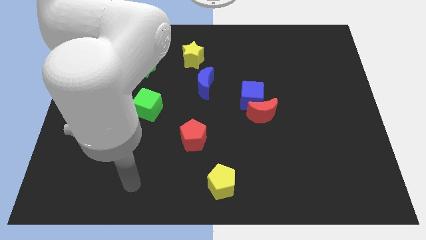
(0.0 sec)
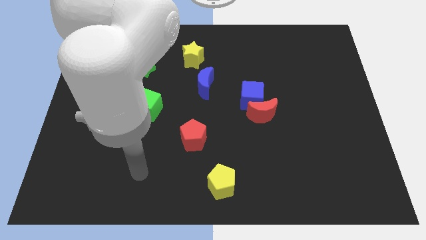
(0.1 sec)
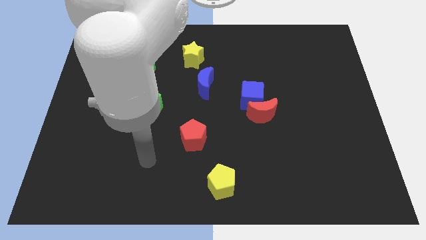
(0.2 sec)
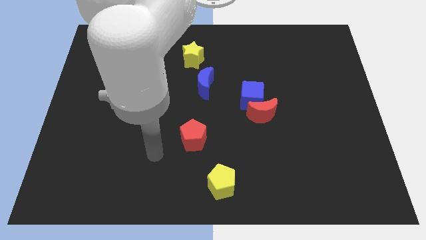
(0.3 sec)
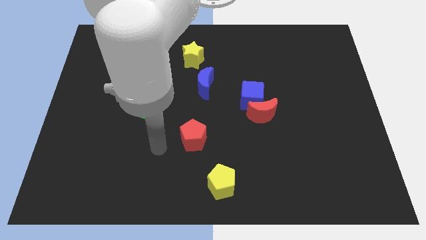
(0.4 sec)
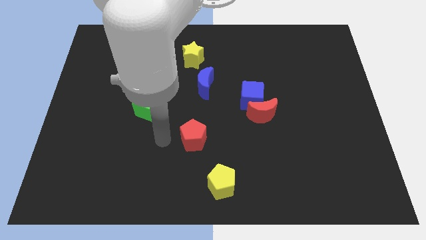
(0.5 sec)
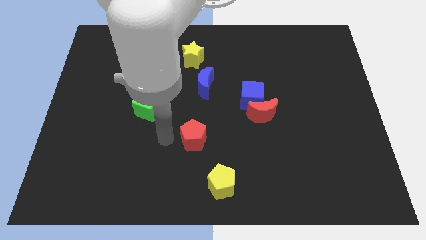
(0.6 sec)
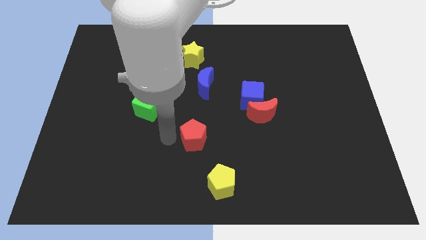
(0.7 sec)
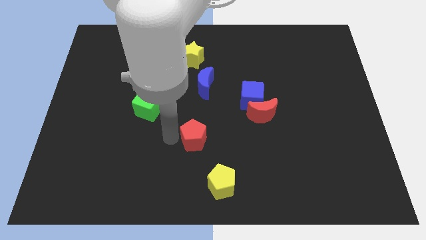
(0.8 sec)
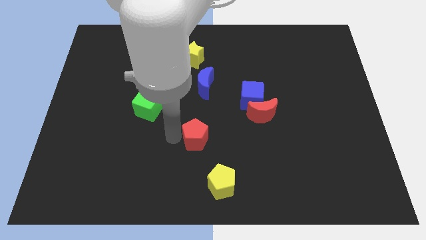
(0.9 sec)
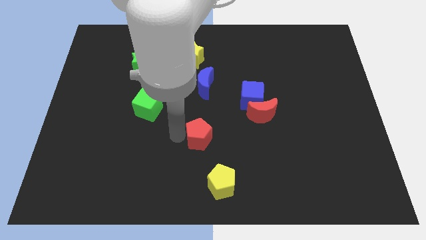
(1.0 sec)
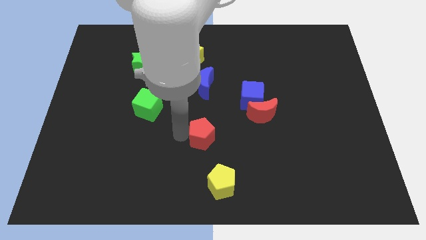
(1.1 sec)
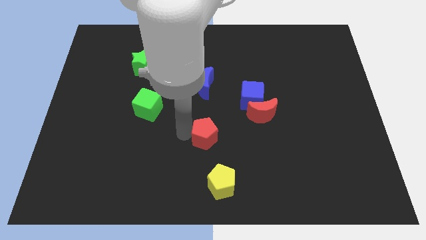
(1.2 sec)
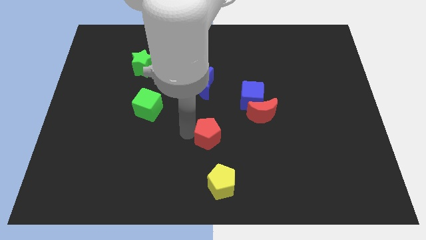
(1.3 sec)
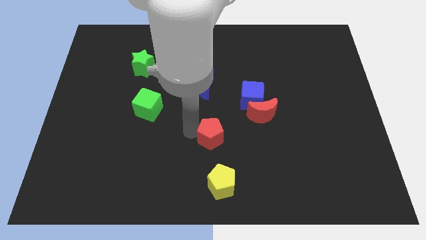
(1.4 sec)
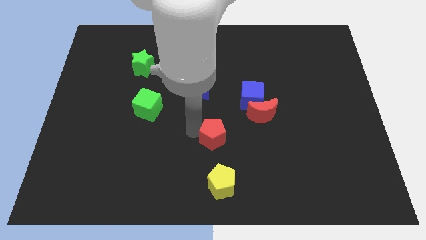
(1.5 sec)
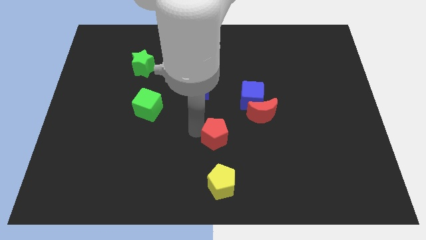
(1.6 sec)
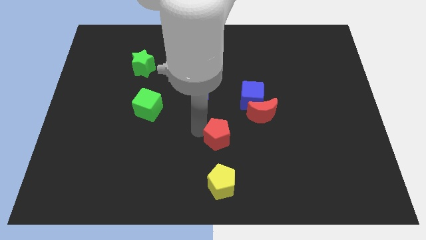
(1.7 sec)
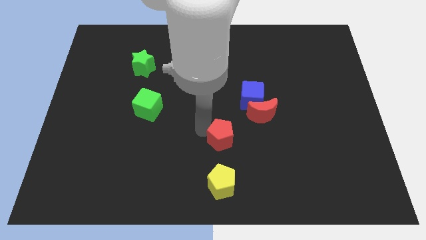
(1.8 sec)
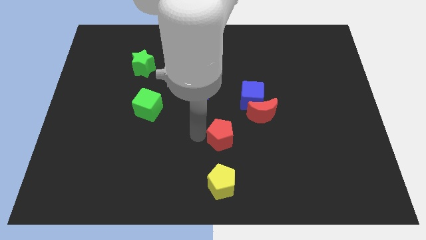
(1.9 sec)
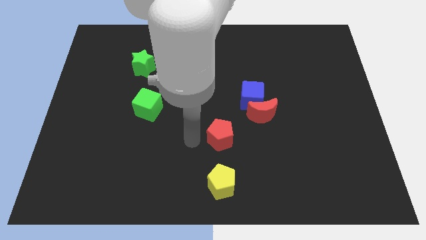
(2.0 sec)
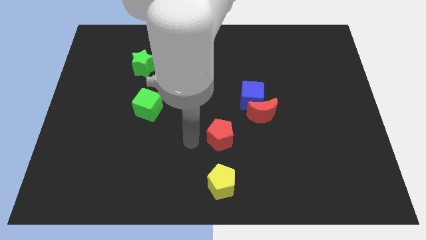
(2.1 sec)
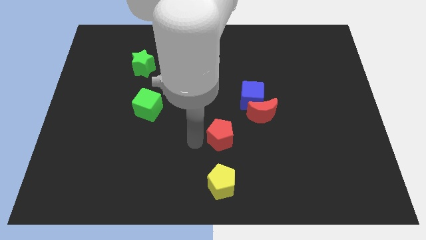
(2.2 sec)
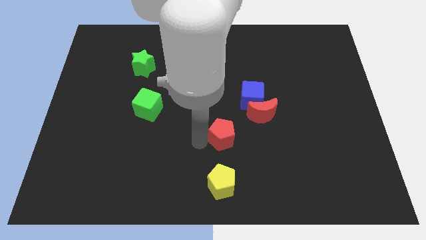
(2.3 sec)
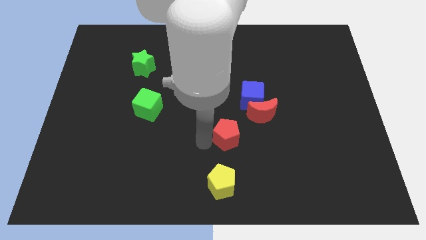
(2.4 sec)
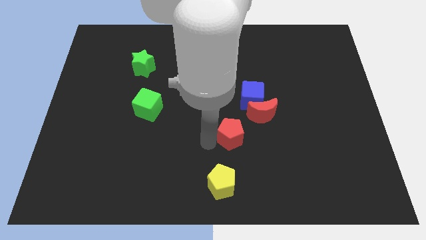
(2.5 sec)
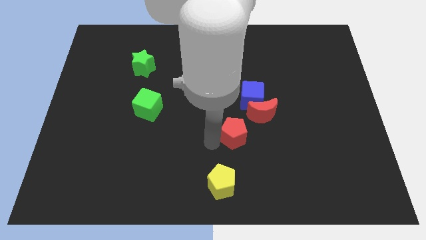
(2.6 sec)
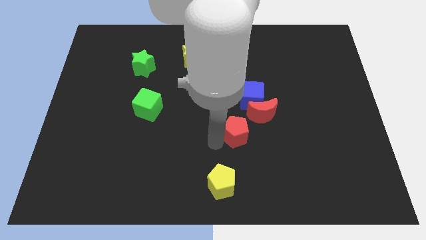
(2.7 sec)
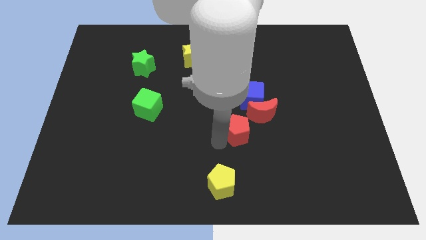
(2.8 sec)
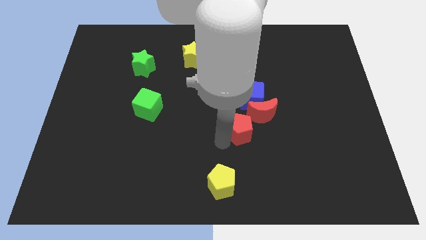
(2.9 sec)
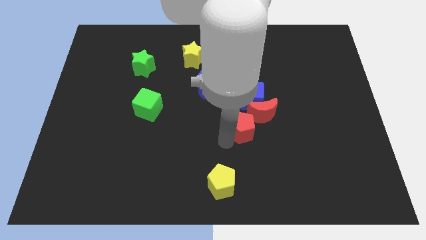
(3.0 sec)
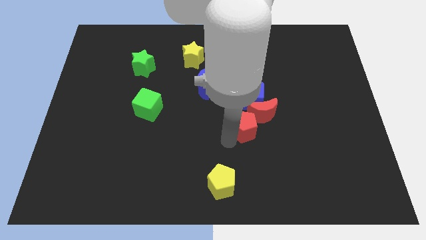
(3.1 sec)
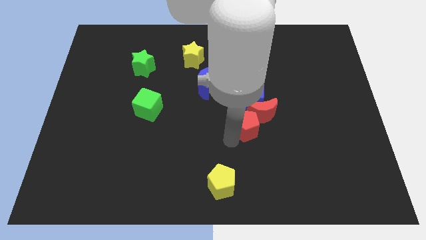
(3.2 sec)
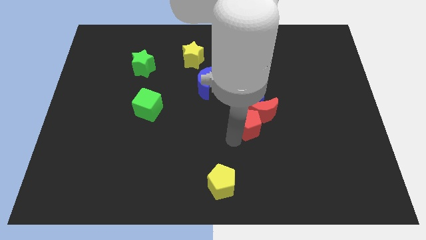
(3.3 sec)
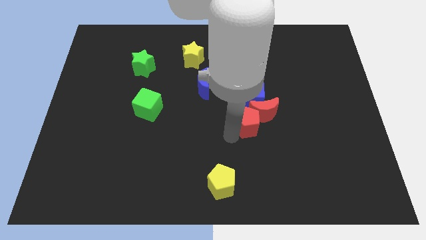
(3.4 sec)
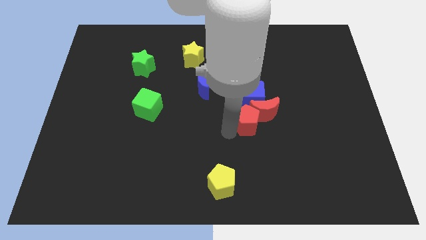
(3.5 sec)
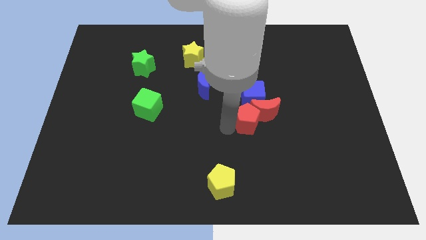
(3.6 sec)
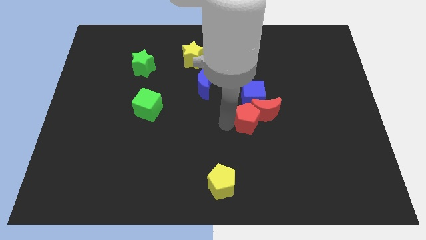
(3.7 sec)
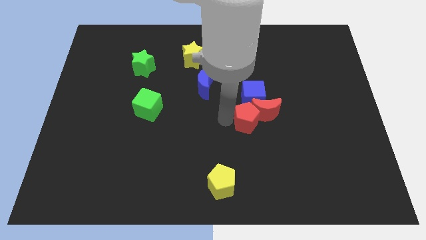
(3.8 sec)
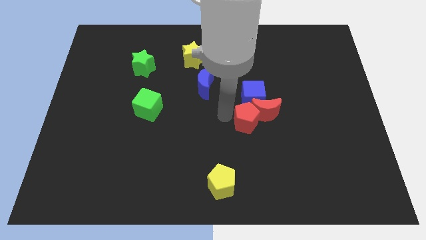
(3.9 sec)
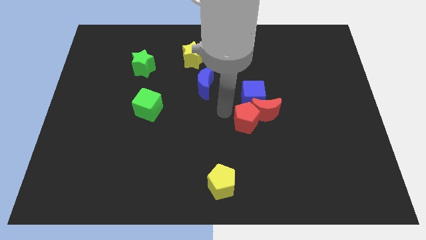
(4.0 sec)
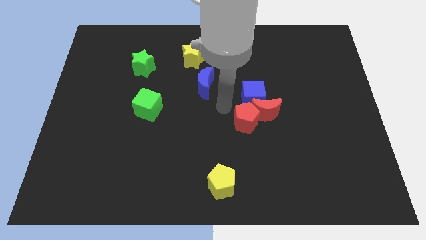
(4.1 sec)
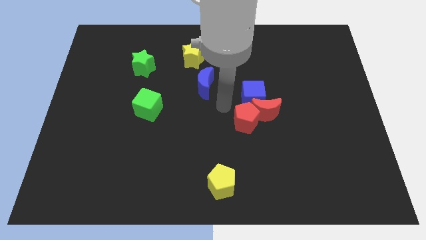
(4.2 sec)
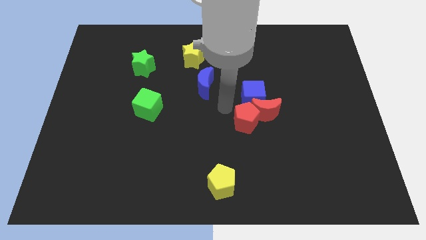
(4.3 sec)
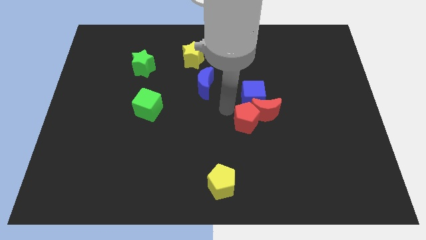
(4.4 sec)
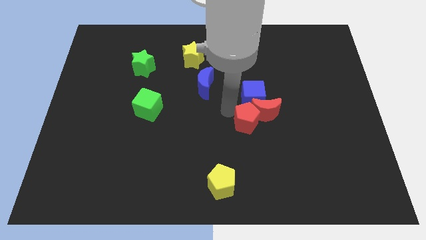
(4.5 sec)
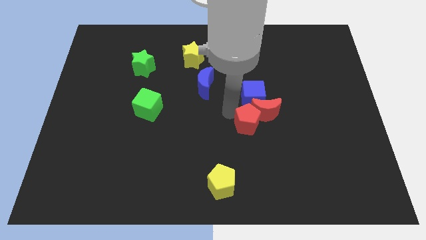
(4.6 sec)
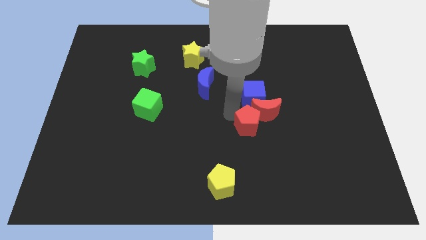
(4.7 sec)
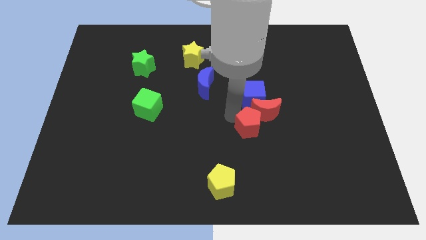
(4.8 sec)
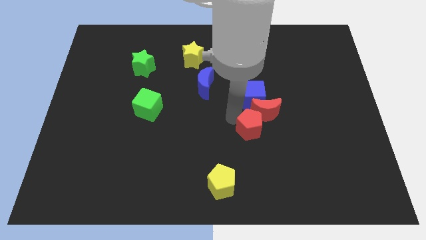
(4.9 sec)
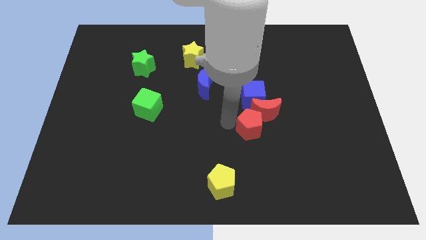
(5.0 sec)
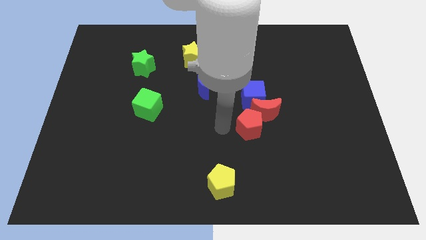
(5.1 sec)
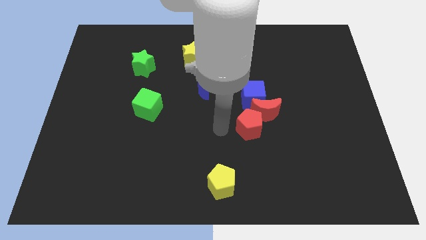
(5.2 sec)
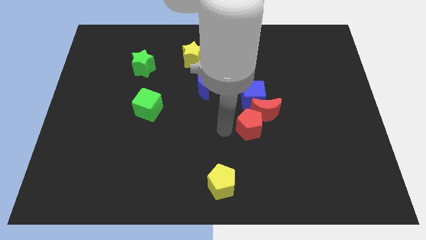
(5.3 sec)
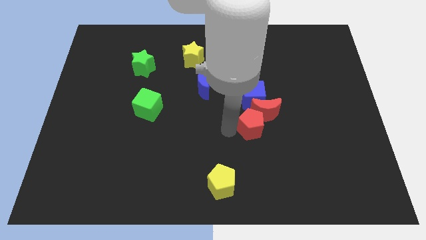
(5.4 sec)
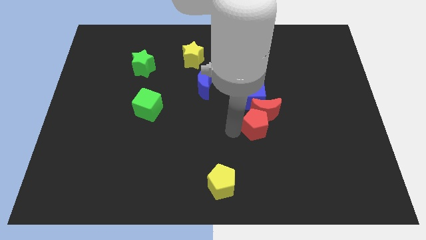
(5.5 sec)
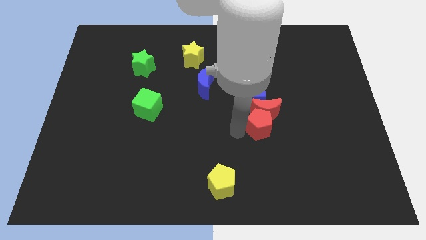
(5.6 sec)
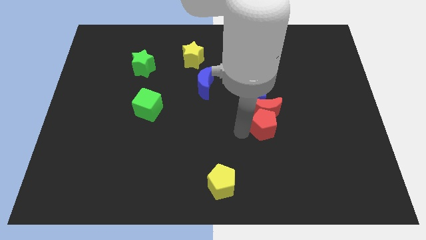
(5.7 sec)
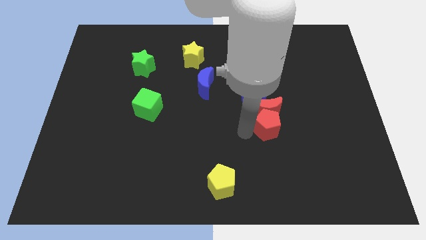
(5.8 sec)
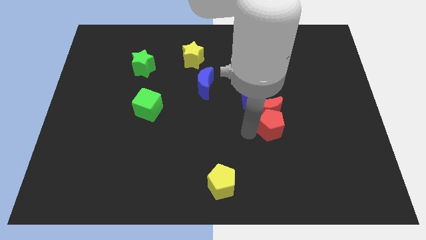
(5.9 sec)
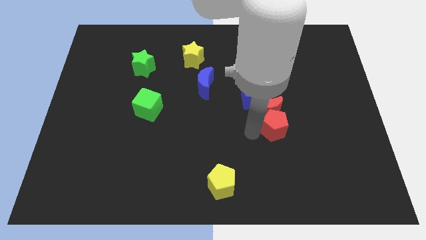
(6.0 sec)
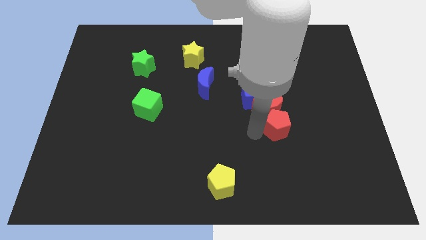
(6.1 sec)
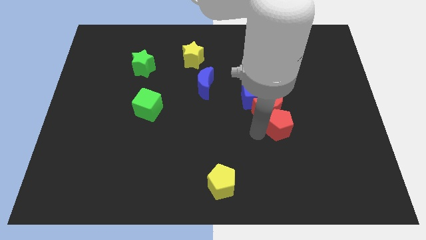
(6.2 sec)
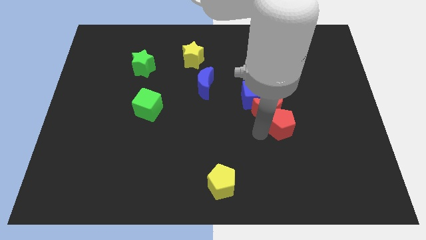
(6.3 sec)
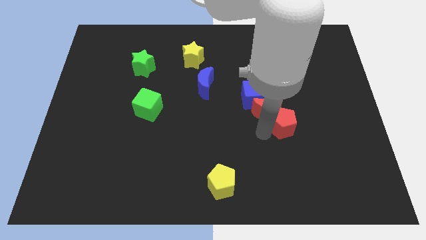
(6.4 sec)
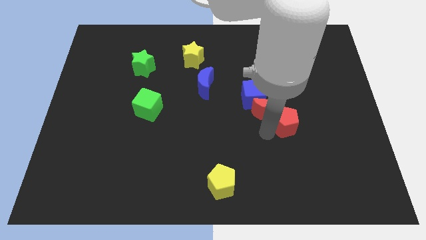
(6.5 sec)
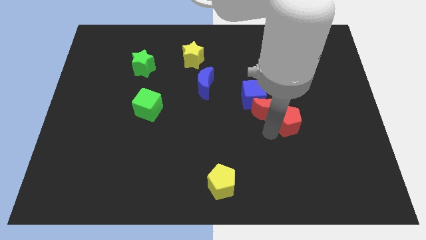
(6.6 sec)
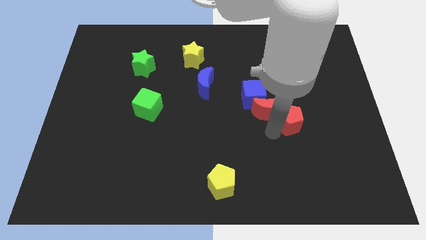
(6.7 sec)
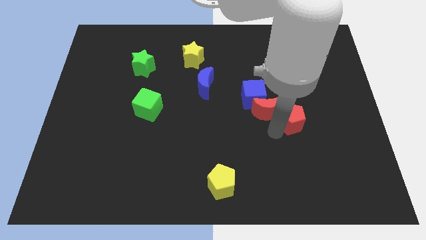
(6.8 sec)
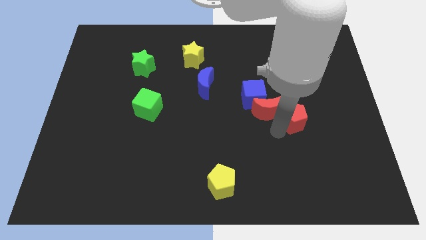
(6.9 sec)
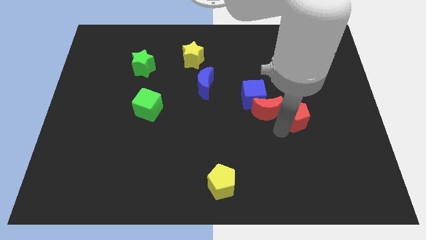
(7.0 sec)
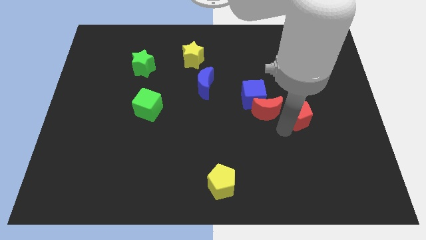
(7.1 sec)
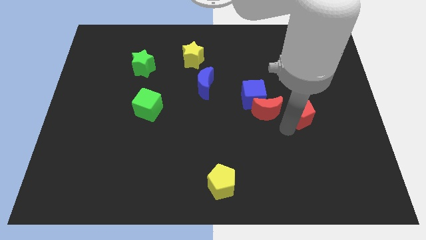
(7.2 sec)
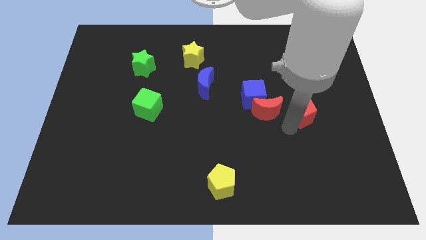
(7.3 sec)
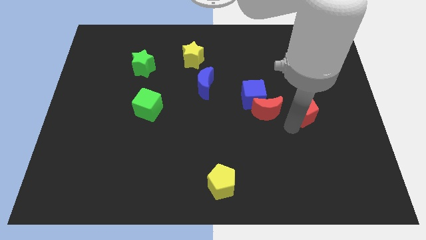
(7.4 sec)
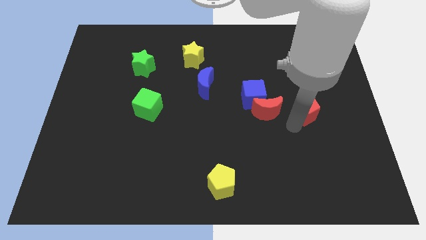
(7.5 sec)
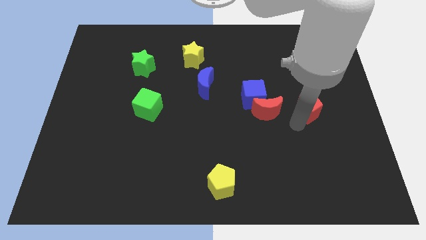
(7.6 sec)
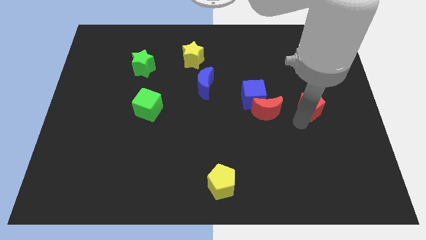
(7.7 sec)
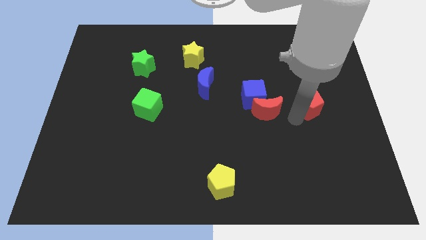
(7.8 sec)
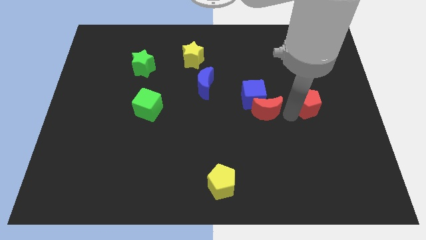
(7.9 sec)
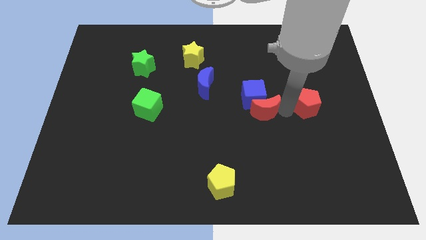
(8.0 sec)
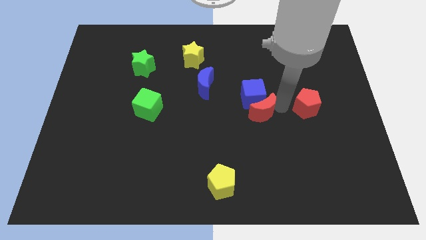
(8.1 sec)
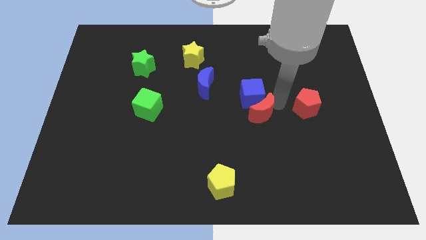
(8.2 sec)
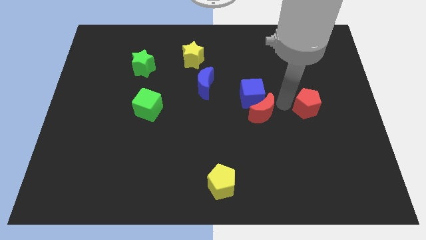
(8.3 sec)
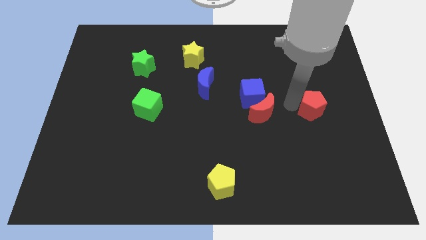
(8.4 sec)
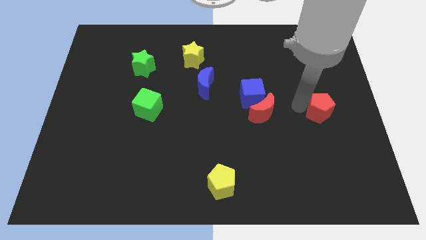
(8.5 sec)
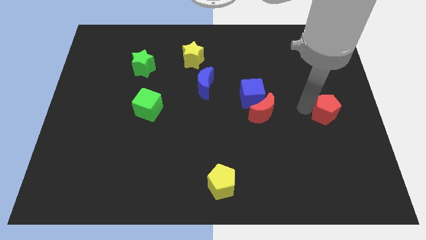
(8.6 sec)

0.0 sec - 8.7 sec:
put the red pentagon to the center right
